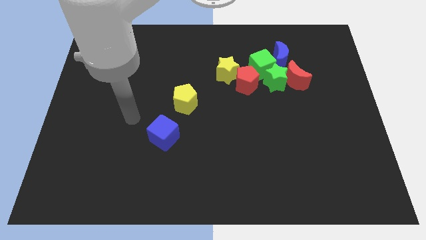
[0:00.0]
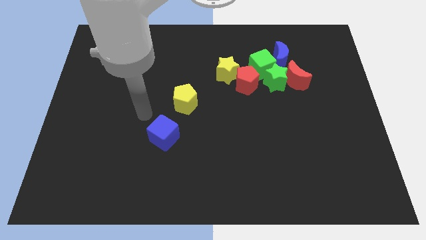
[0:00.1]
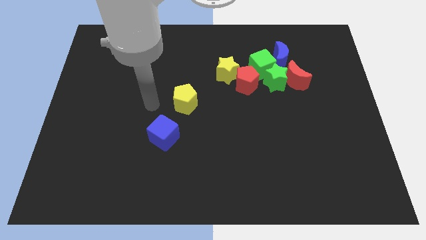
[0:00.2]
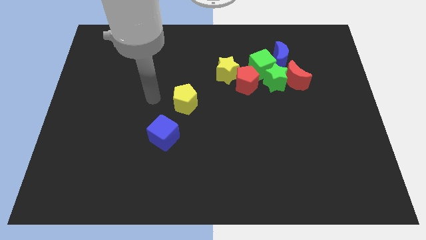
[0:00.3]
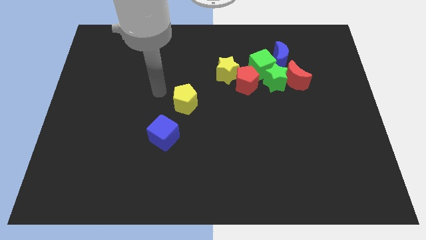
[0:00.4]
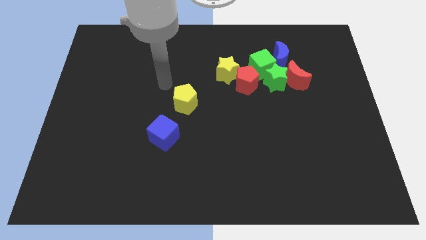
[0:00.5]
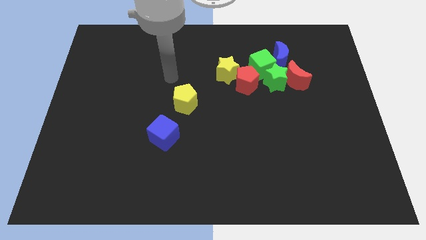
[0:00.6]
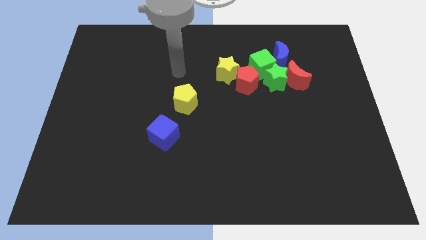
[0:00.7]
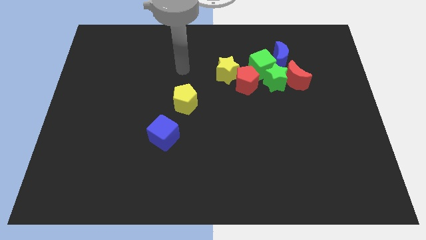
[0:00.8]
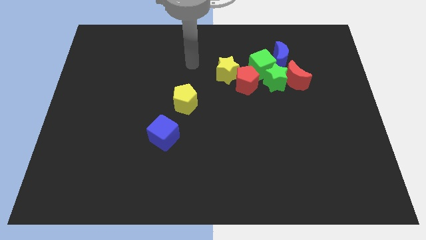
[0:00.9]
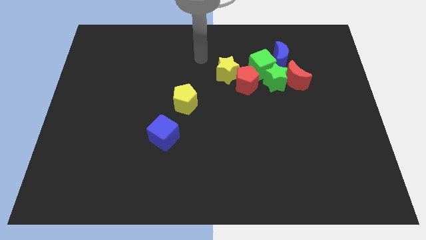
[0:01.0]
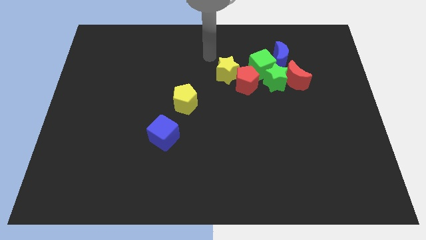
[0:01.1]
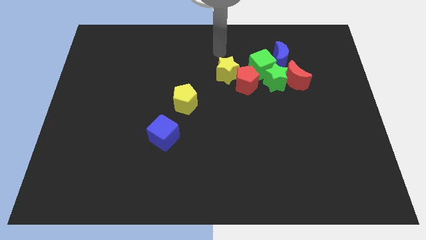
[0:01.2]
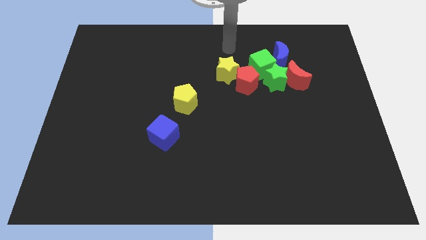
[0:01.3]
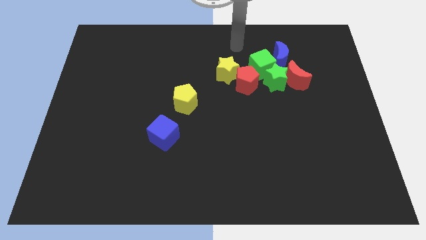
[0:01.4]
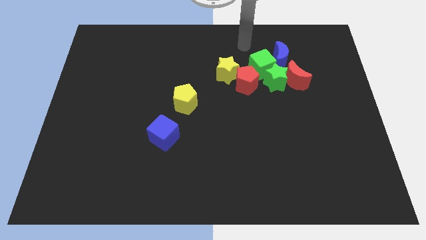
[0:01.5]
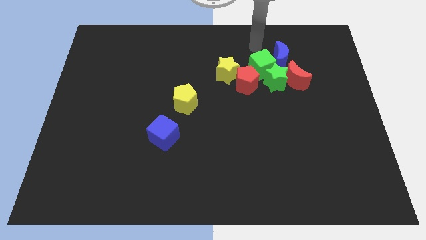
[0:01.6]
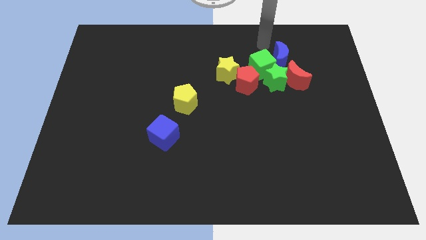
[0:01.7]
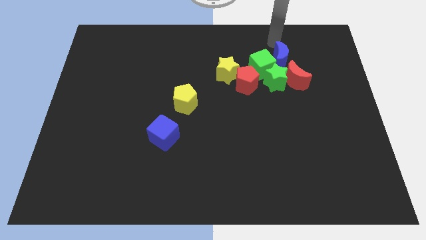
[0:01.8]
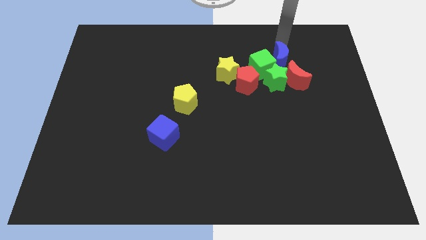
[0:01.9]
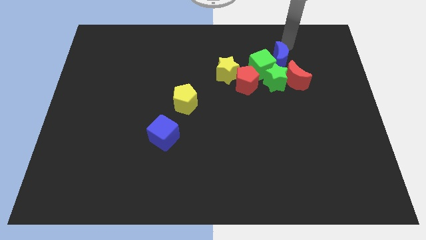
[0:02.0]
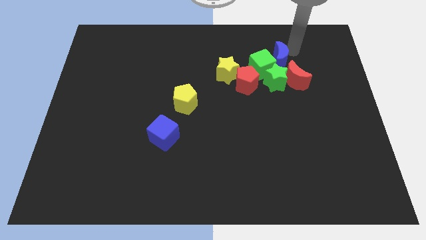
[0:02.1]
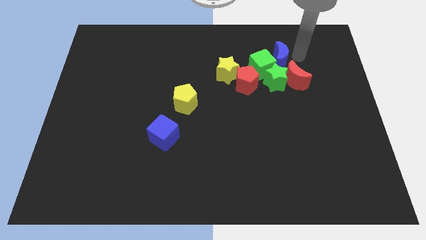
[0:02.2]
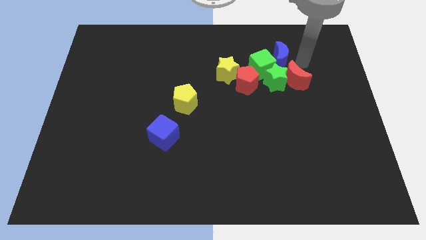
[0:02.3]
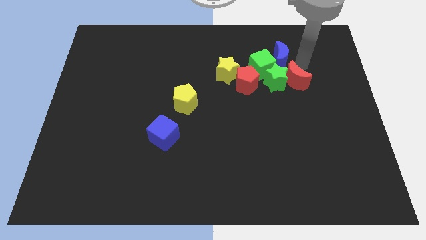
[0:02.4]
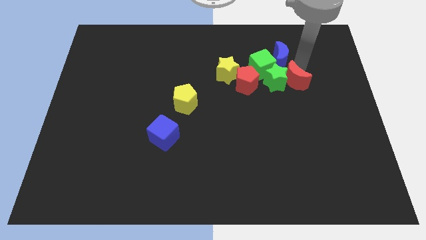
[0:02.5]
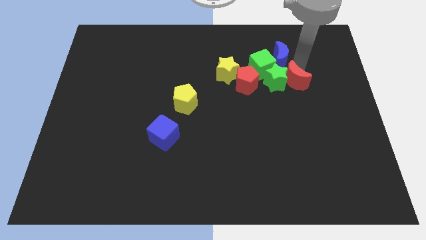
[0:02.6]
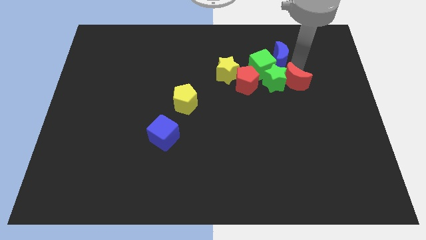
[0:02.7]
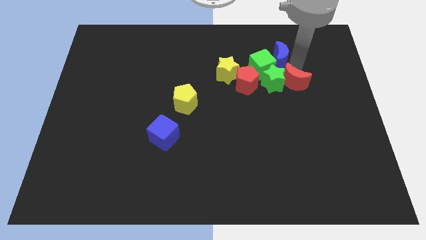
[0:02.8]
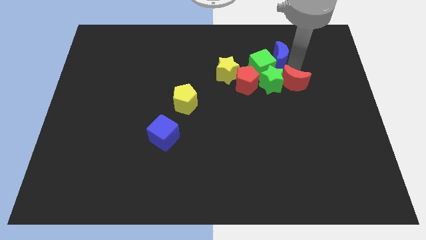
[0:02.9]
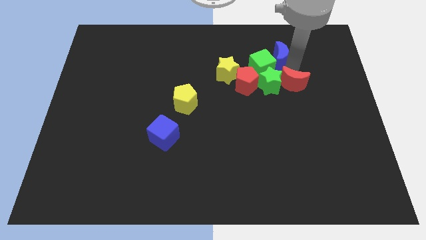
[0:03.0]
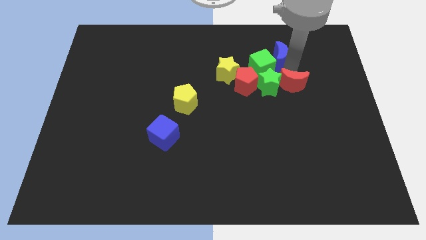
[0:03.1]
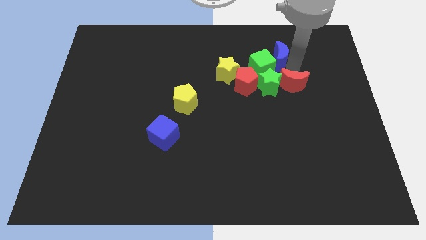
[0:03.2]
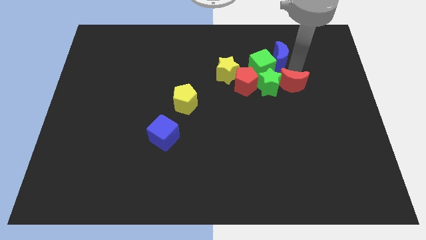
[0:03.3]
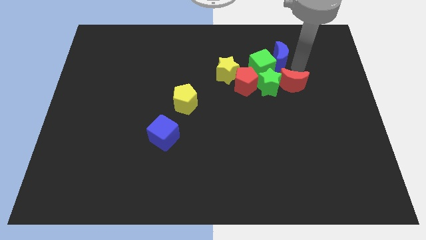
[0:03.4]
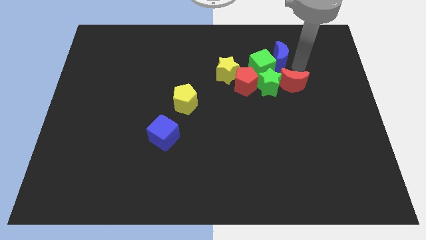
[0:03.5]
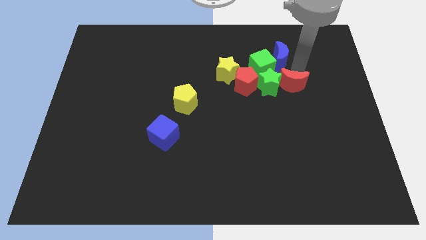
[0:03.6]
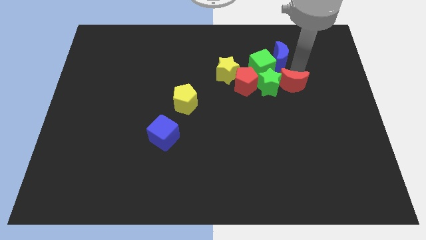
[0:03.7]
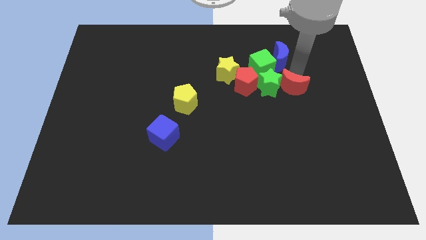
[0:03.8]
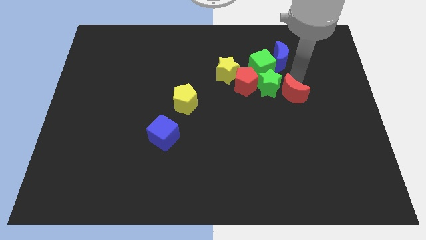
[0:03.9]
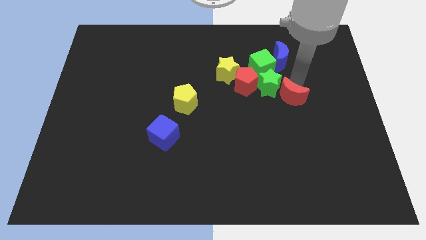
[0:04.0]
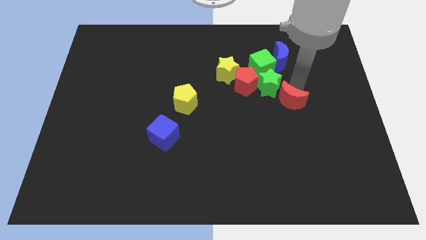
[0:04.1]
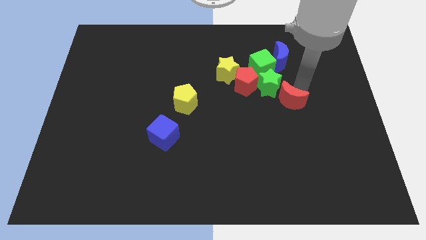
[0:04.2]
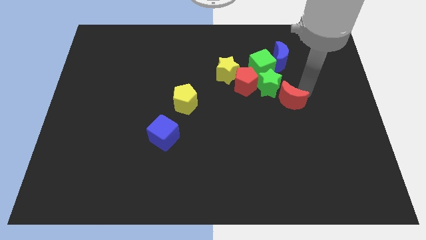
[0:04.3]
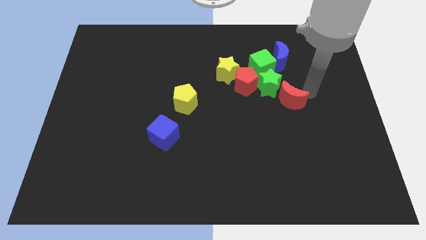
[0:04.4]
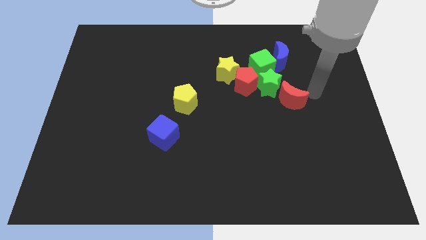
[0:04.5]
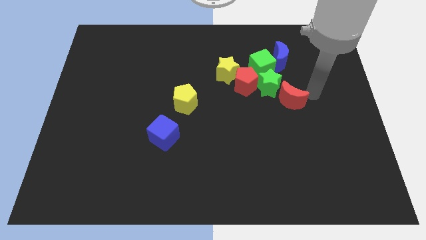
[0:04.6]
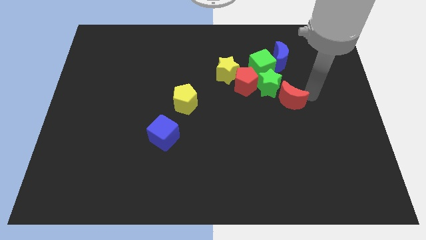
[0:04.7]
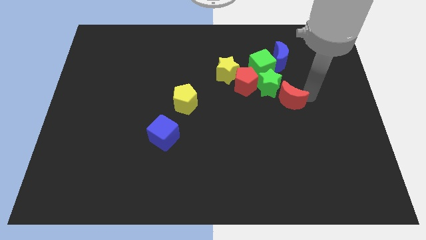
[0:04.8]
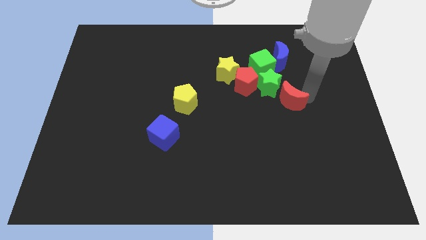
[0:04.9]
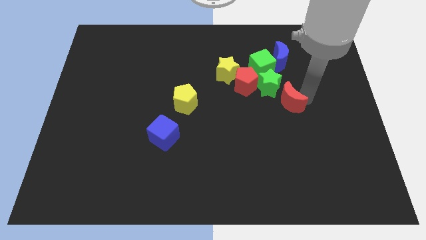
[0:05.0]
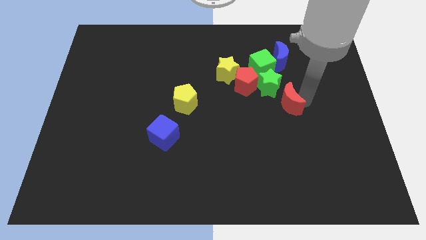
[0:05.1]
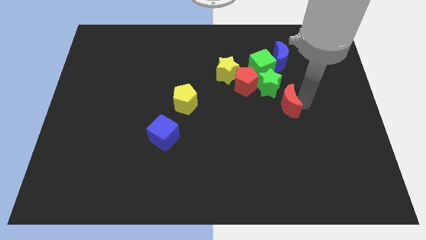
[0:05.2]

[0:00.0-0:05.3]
slightly push the red moon diagonally down and left

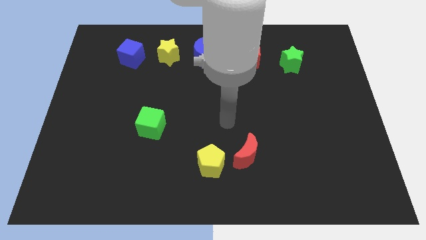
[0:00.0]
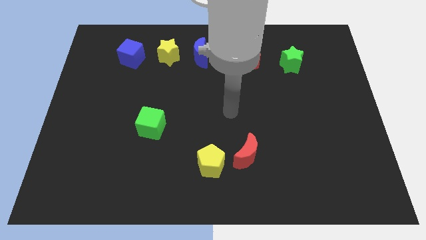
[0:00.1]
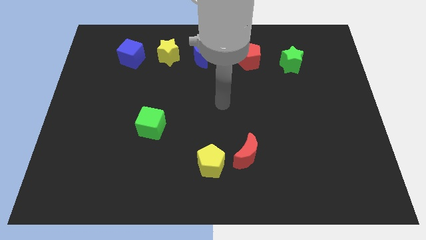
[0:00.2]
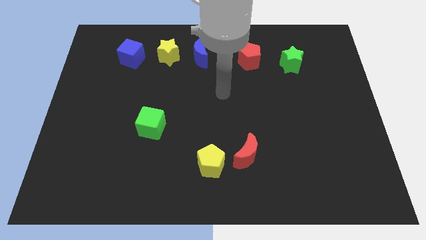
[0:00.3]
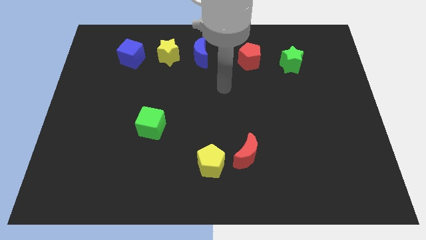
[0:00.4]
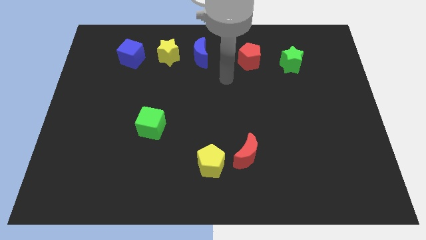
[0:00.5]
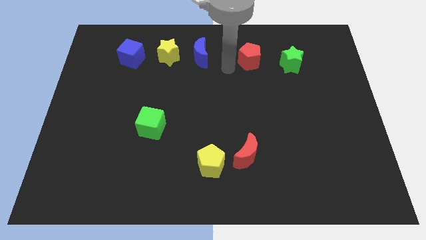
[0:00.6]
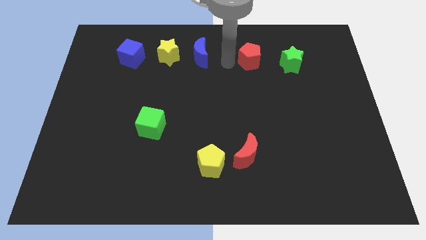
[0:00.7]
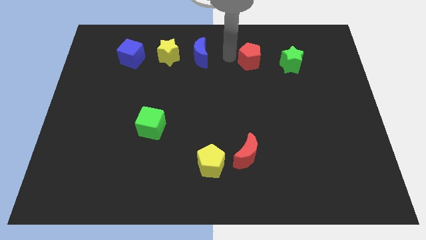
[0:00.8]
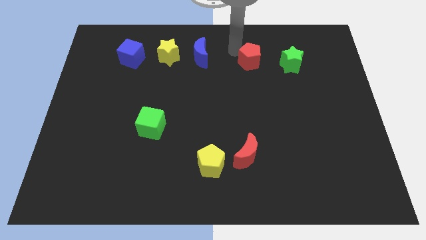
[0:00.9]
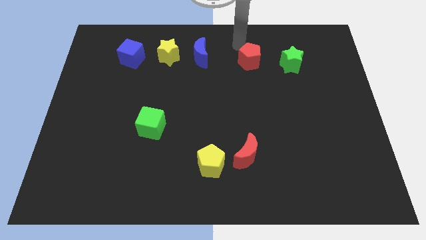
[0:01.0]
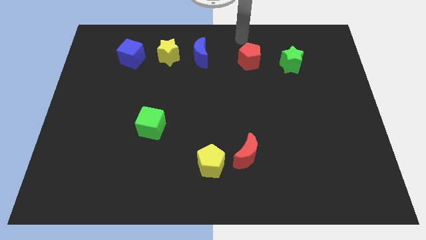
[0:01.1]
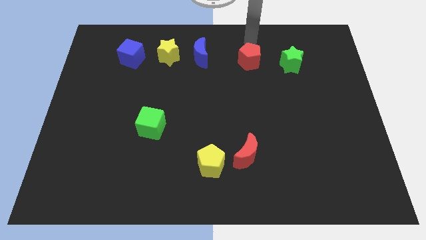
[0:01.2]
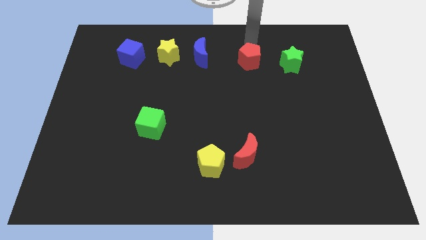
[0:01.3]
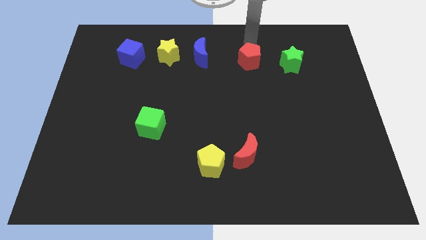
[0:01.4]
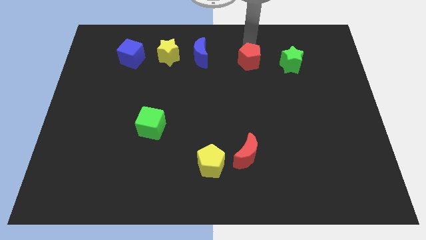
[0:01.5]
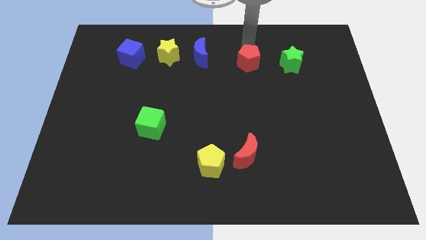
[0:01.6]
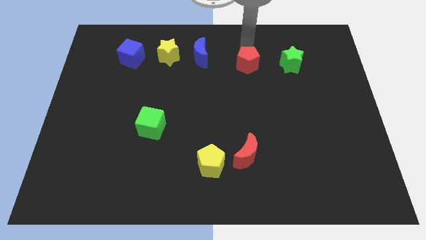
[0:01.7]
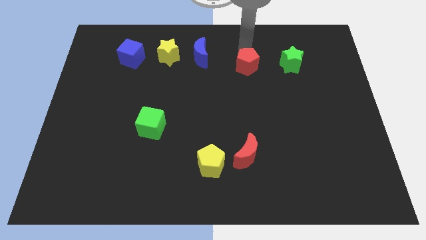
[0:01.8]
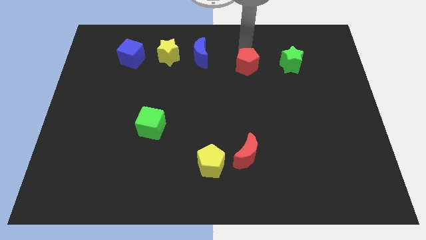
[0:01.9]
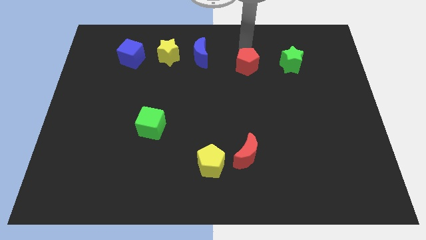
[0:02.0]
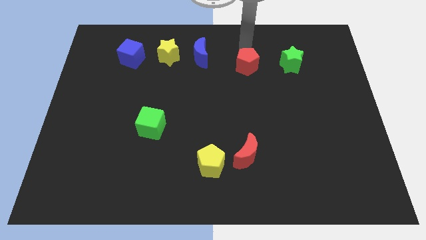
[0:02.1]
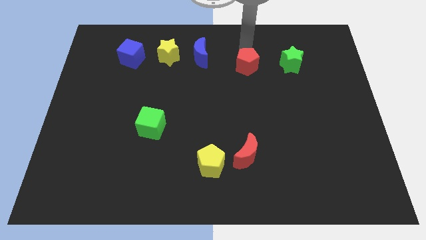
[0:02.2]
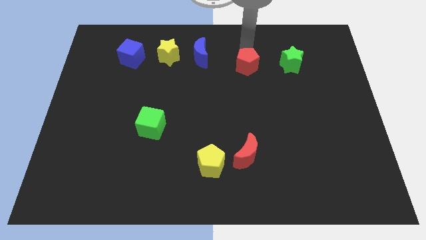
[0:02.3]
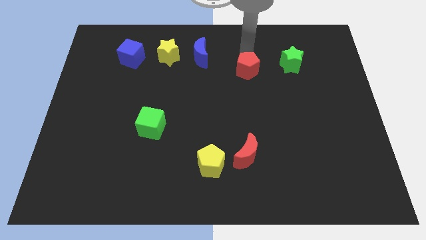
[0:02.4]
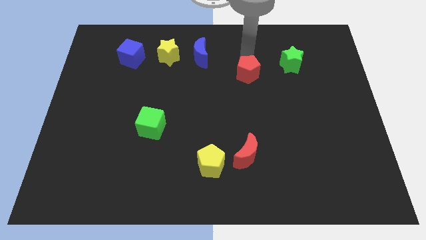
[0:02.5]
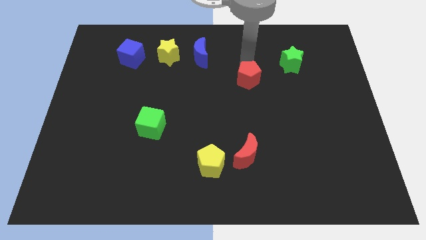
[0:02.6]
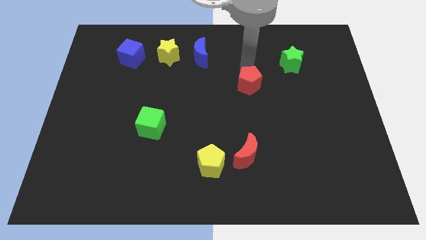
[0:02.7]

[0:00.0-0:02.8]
slide the red pentagon somewhat down
